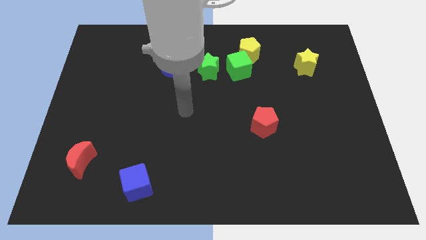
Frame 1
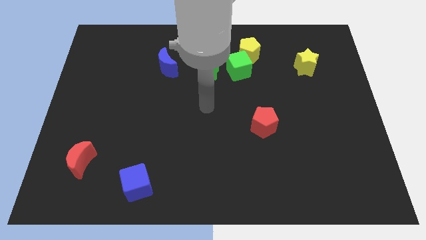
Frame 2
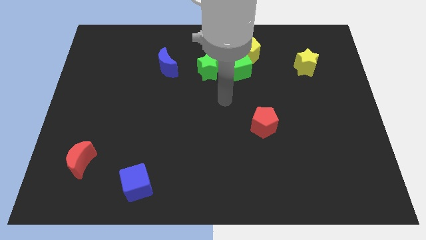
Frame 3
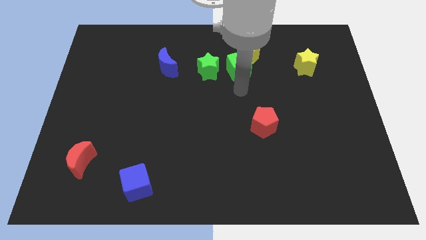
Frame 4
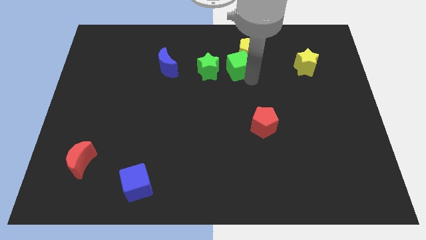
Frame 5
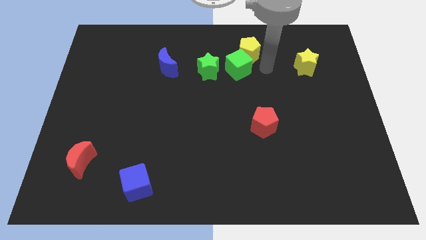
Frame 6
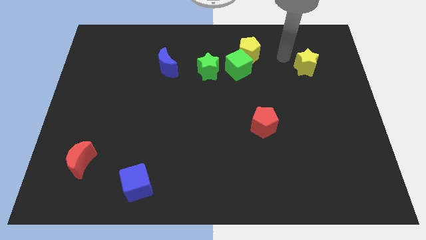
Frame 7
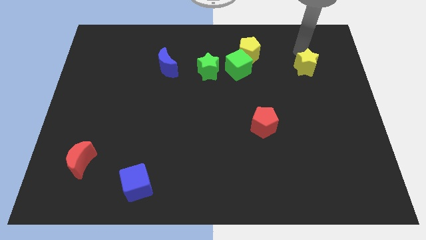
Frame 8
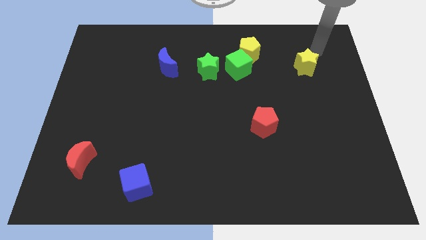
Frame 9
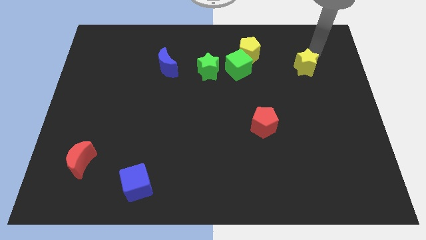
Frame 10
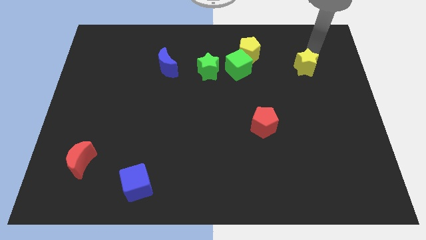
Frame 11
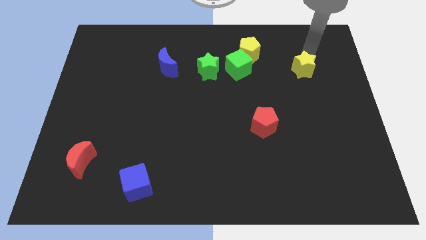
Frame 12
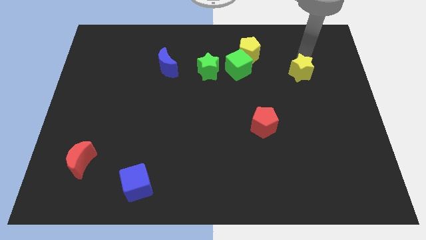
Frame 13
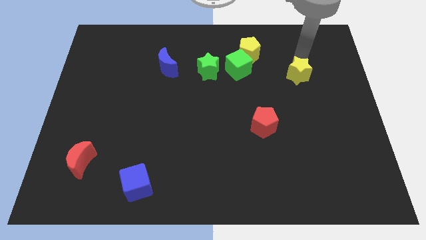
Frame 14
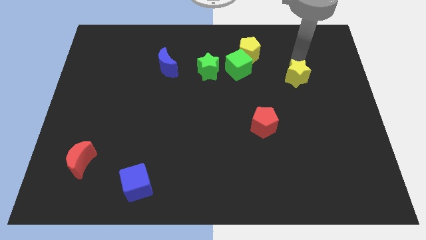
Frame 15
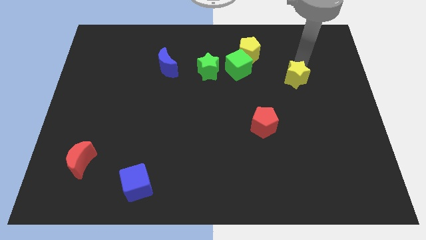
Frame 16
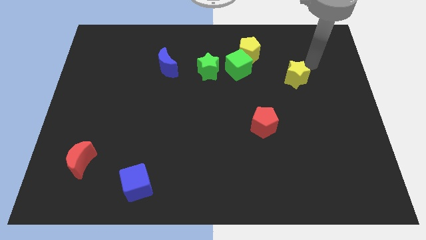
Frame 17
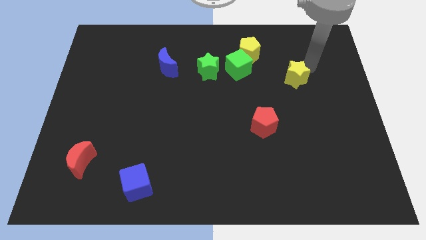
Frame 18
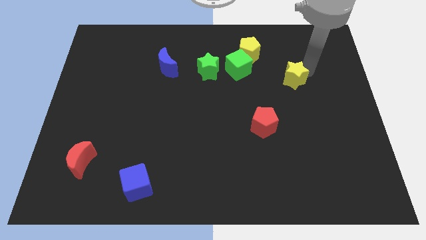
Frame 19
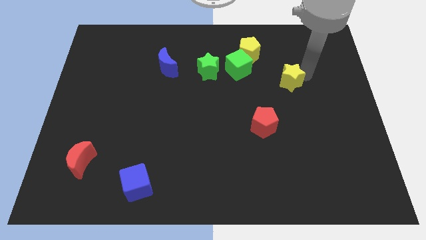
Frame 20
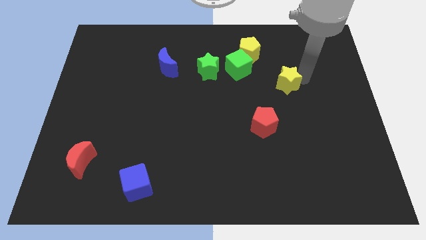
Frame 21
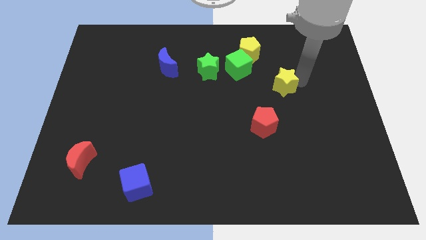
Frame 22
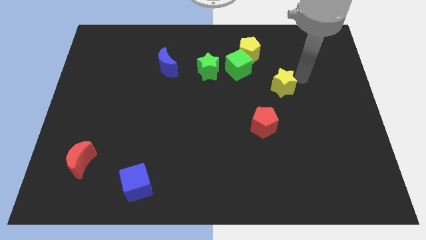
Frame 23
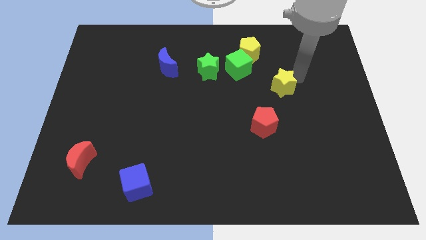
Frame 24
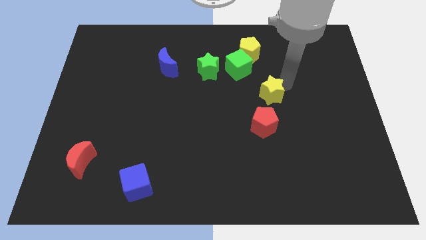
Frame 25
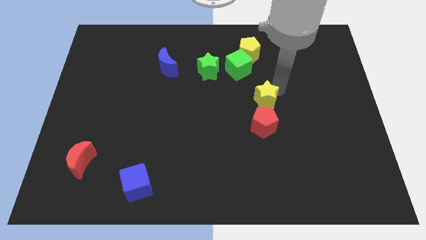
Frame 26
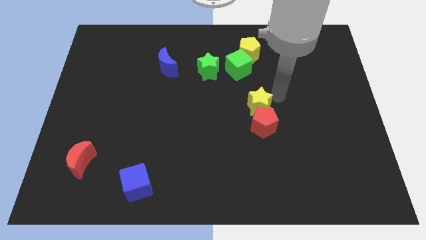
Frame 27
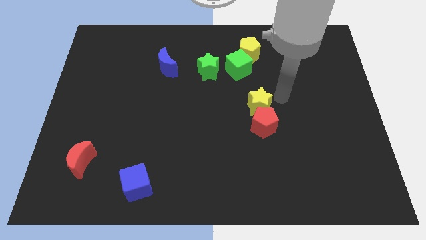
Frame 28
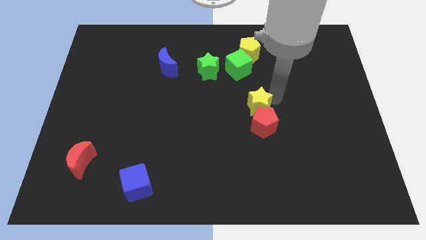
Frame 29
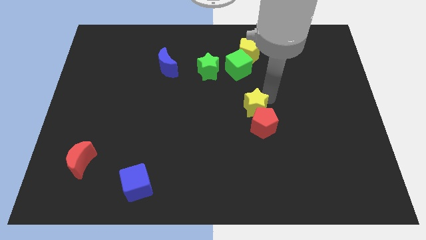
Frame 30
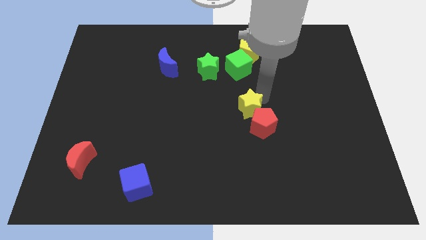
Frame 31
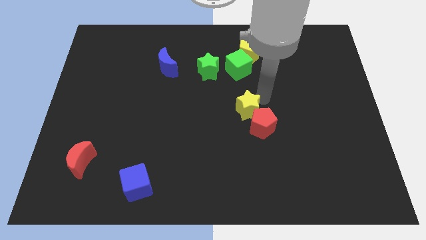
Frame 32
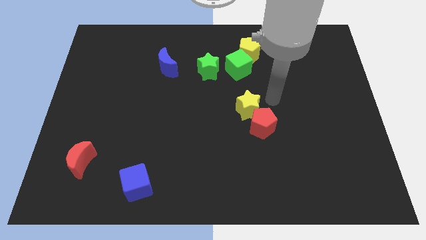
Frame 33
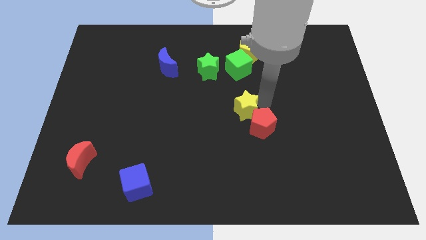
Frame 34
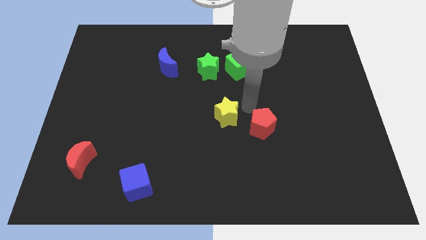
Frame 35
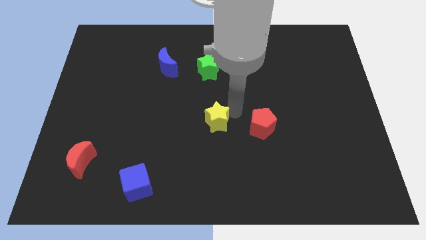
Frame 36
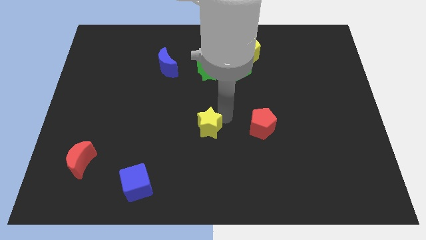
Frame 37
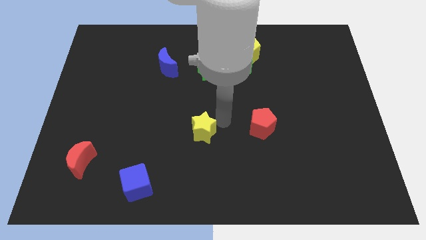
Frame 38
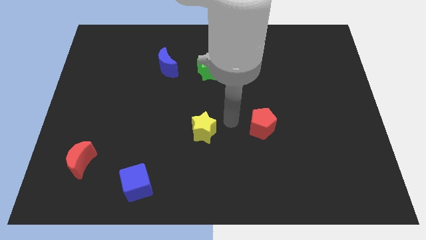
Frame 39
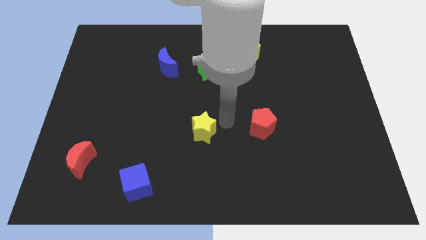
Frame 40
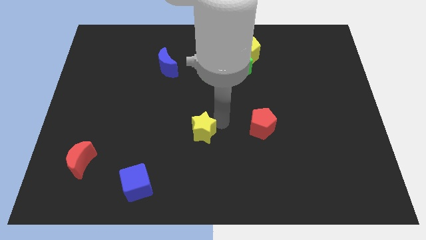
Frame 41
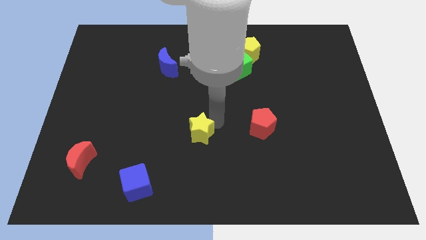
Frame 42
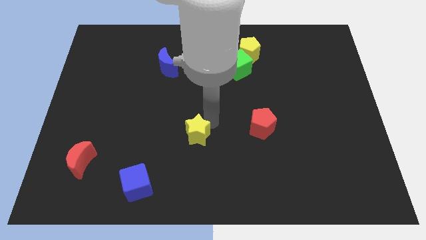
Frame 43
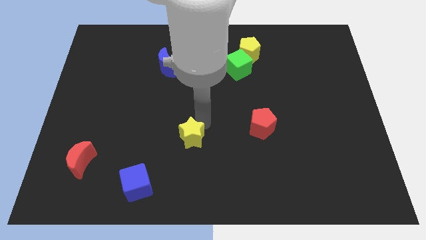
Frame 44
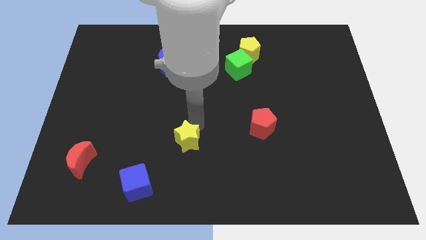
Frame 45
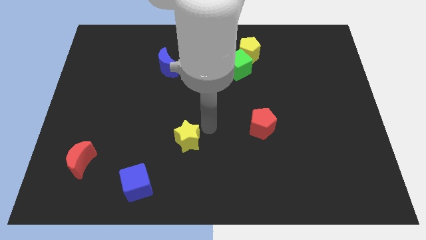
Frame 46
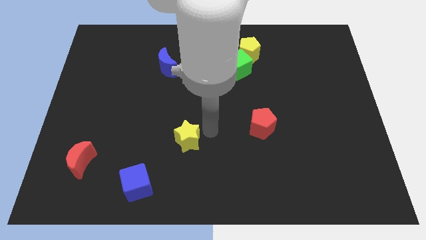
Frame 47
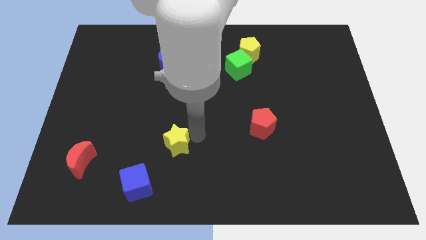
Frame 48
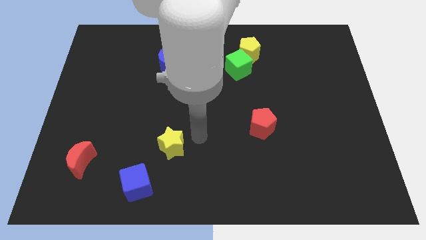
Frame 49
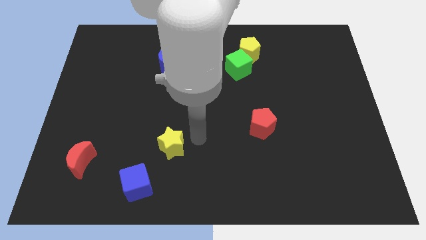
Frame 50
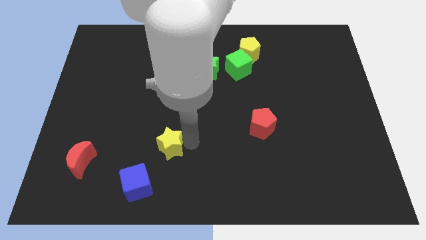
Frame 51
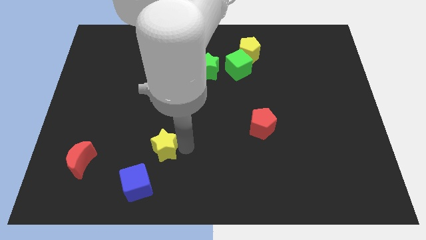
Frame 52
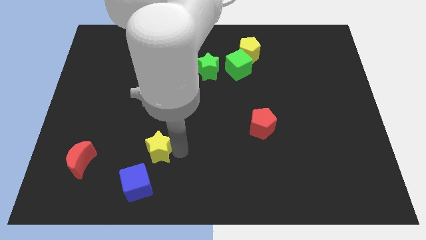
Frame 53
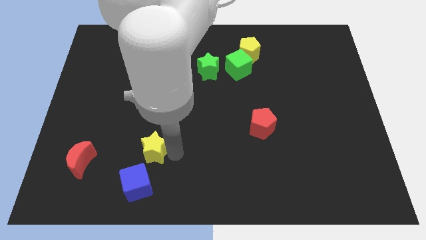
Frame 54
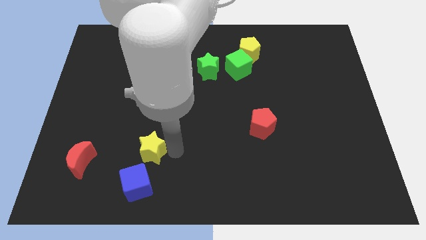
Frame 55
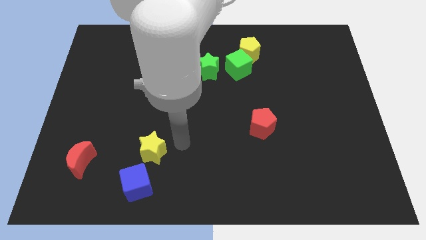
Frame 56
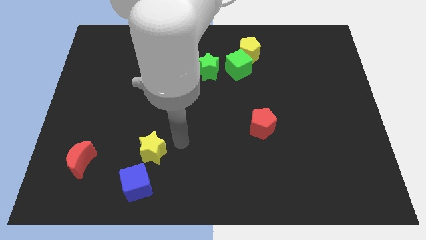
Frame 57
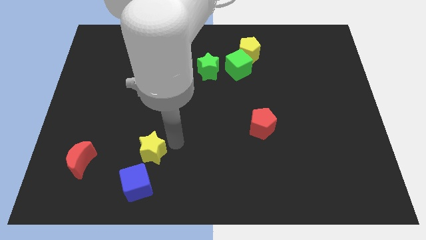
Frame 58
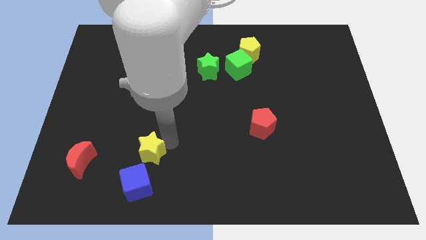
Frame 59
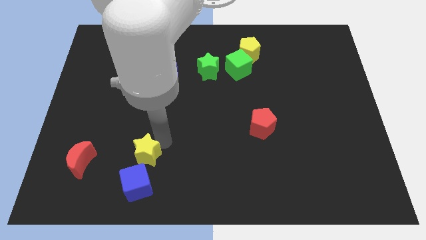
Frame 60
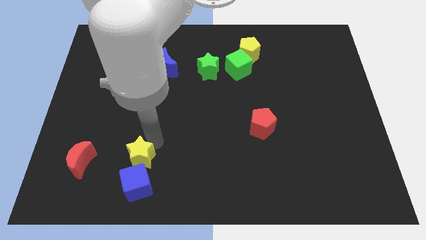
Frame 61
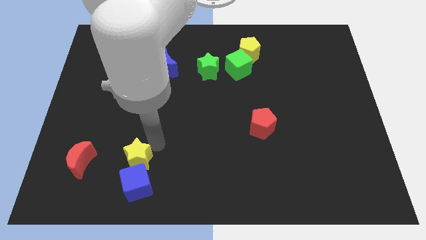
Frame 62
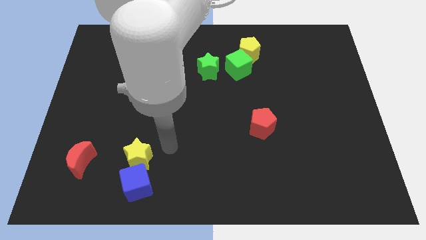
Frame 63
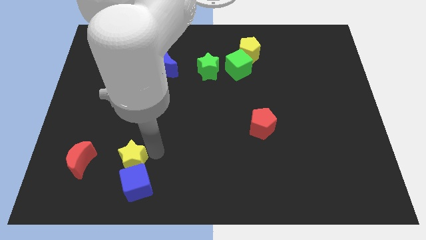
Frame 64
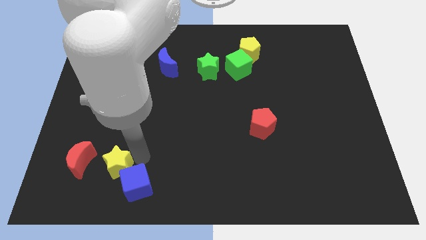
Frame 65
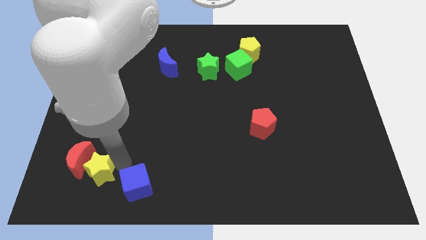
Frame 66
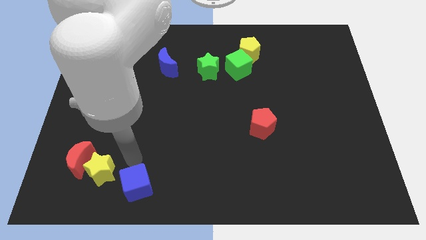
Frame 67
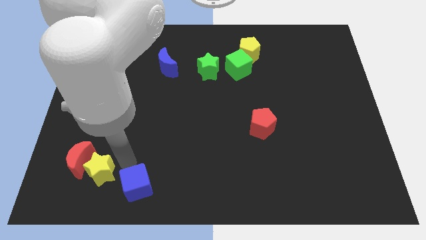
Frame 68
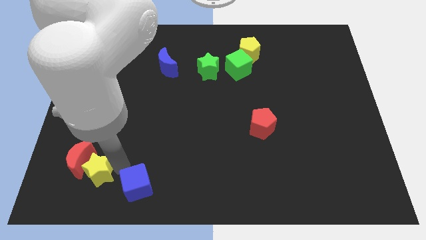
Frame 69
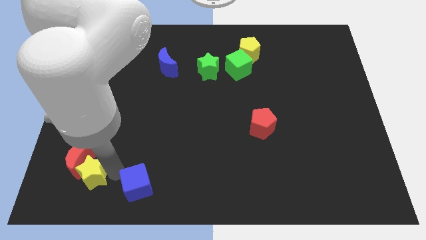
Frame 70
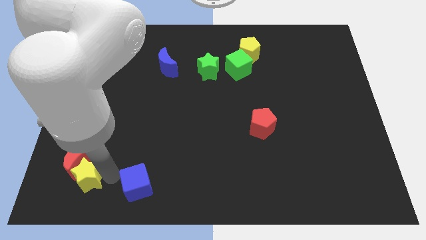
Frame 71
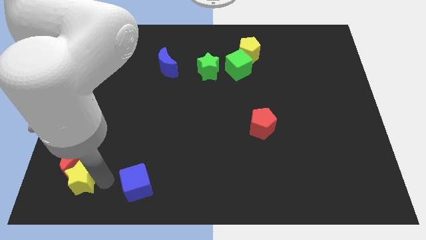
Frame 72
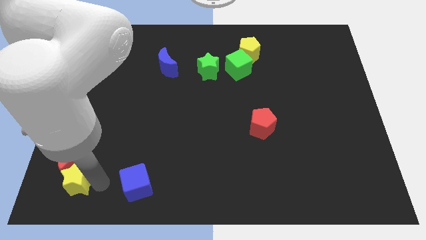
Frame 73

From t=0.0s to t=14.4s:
move the yellow star to the bottom left
